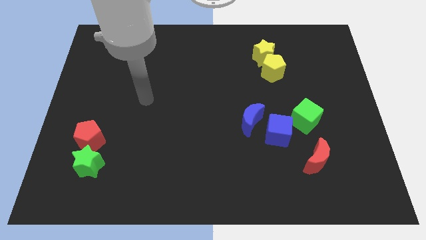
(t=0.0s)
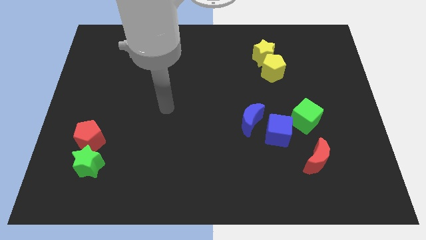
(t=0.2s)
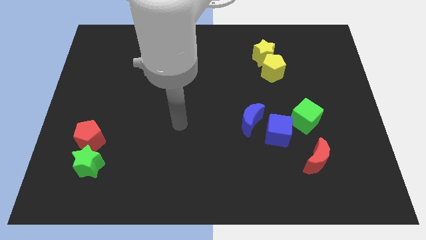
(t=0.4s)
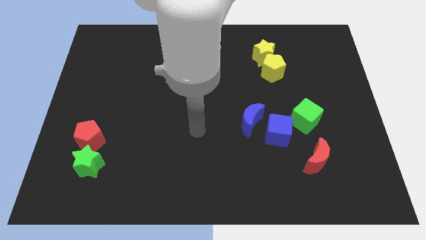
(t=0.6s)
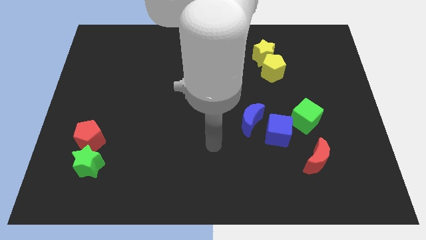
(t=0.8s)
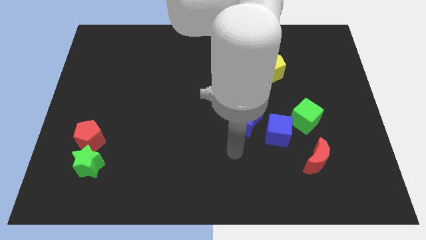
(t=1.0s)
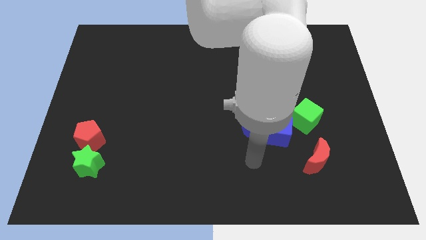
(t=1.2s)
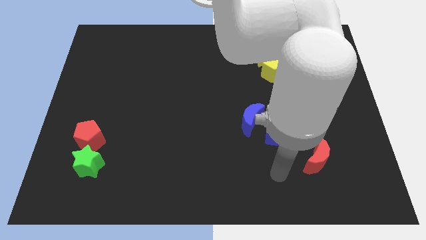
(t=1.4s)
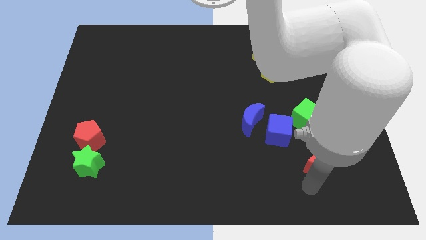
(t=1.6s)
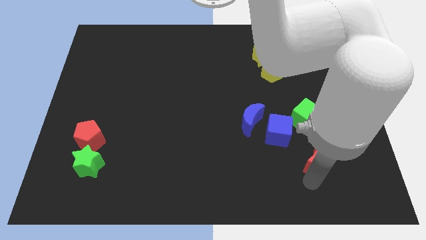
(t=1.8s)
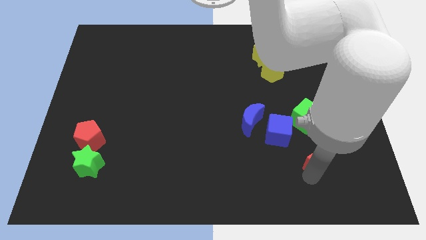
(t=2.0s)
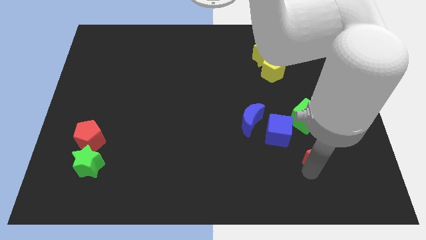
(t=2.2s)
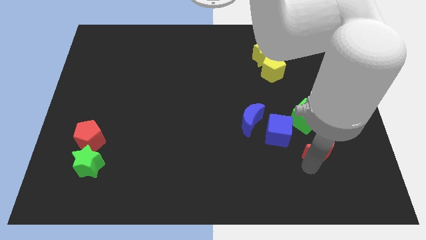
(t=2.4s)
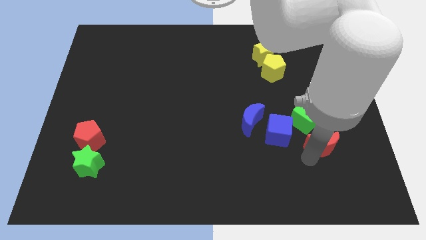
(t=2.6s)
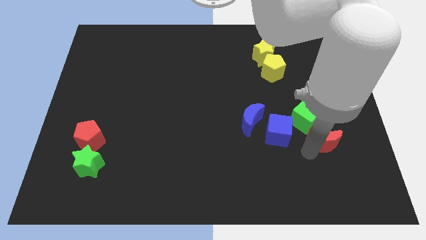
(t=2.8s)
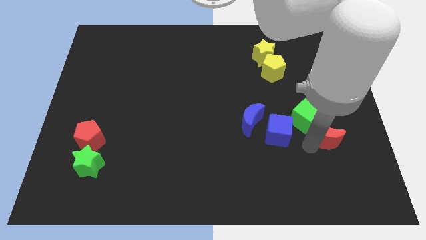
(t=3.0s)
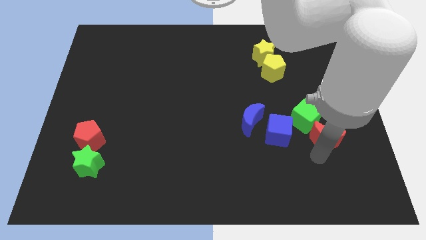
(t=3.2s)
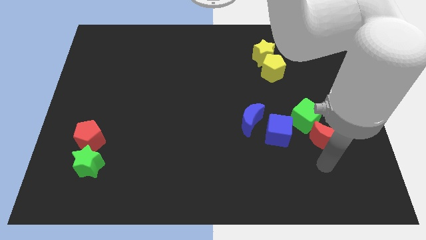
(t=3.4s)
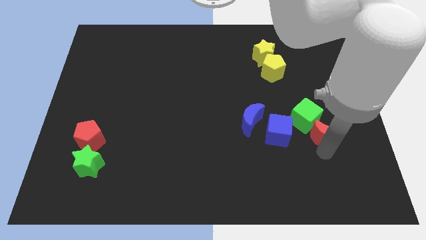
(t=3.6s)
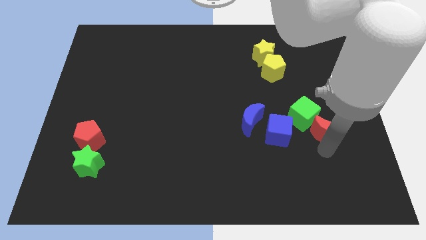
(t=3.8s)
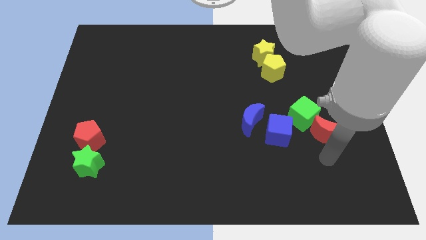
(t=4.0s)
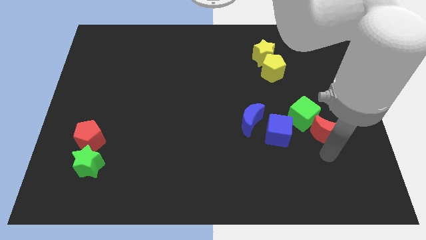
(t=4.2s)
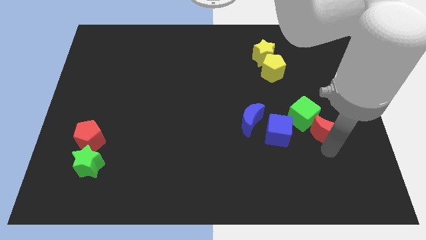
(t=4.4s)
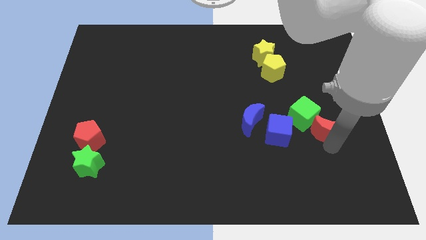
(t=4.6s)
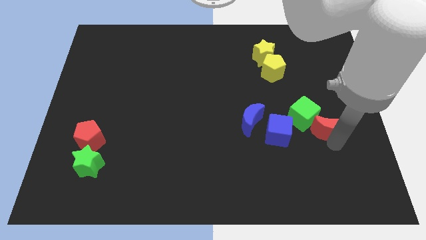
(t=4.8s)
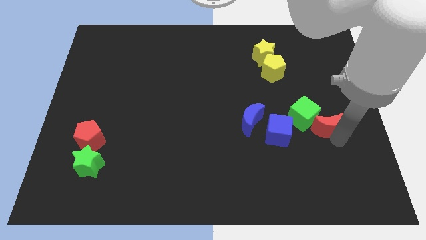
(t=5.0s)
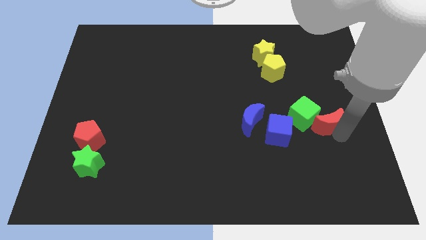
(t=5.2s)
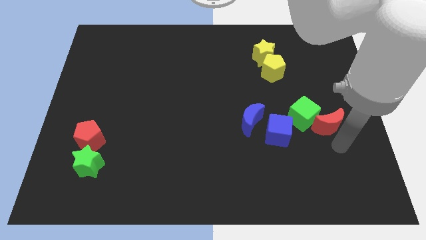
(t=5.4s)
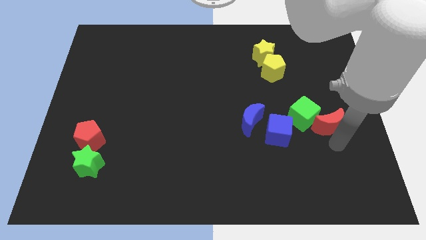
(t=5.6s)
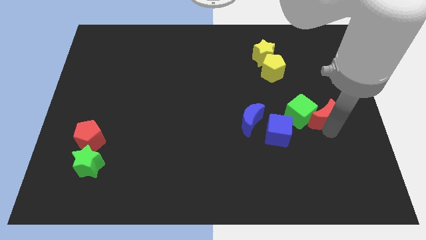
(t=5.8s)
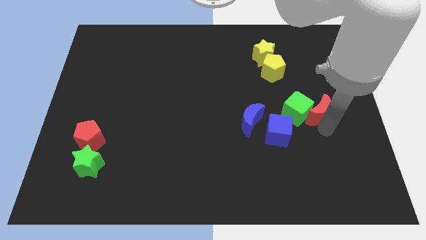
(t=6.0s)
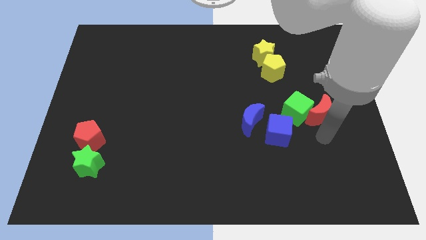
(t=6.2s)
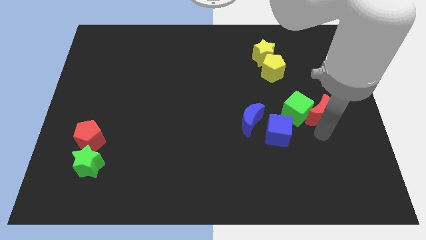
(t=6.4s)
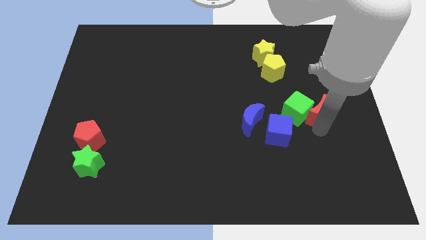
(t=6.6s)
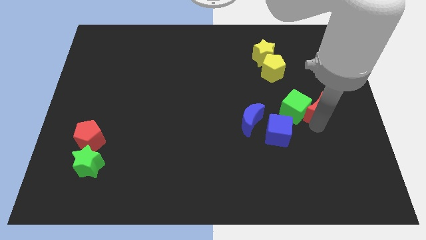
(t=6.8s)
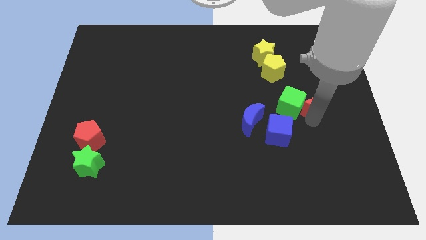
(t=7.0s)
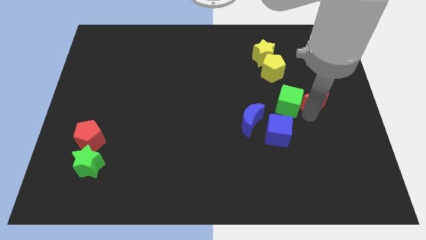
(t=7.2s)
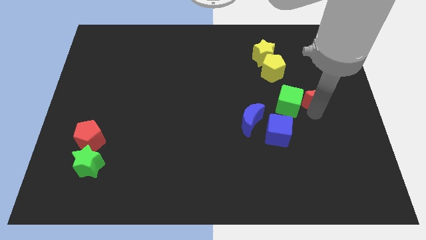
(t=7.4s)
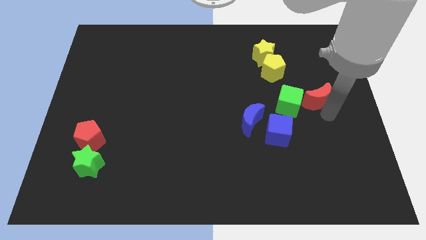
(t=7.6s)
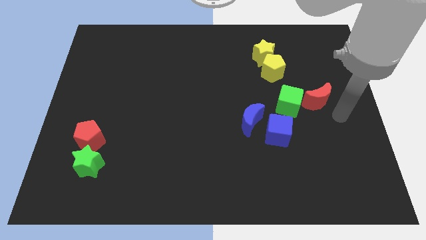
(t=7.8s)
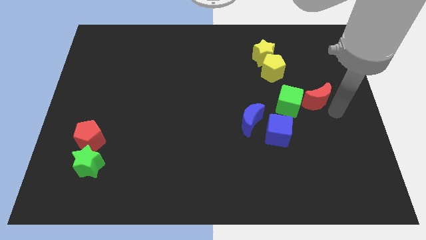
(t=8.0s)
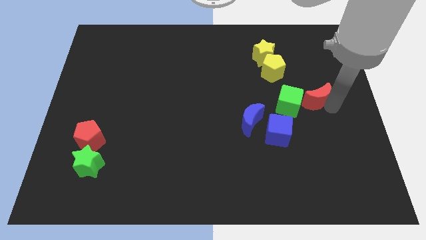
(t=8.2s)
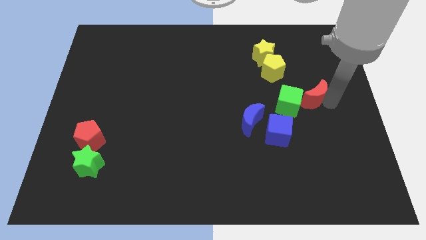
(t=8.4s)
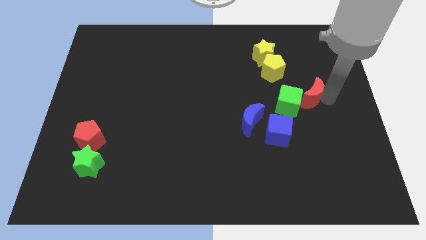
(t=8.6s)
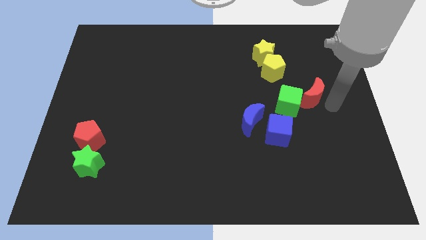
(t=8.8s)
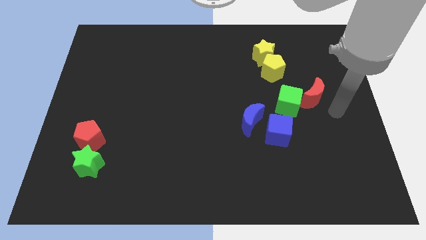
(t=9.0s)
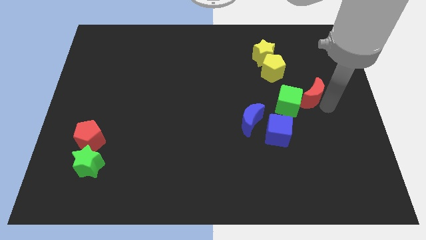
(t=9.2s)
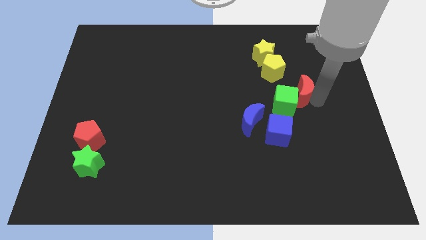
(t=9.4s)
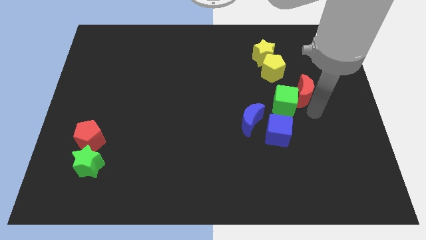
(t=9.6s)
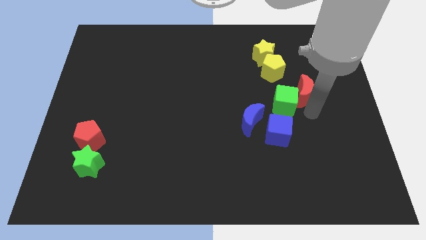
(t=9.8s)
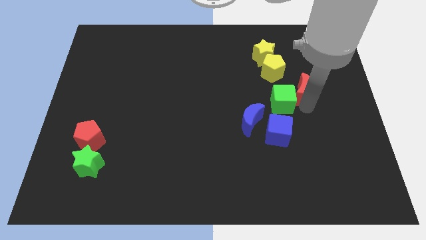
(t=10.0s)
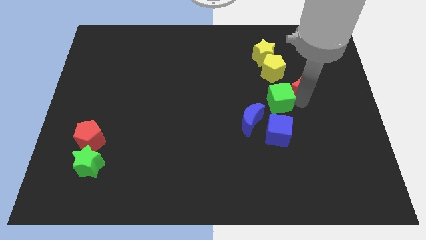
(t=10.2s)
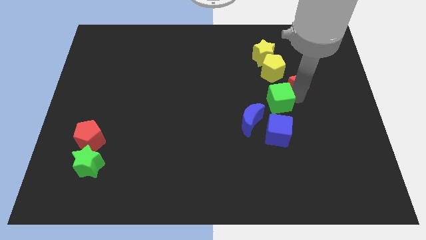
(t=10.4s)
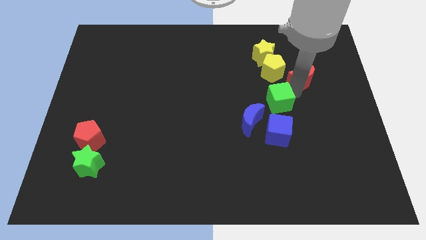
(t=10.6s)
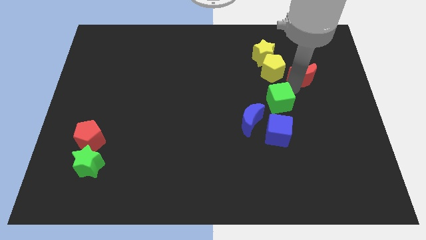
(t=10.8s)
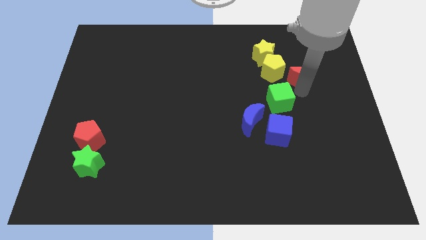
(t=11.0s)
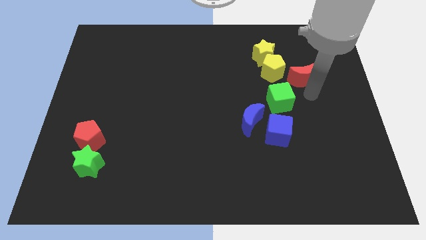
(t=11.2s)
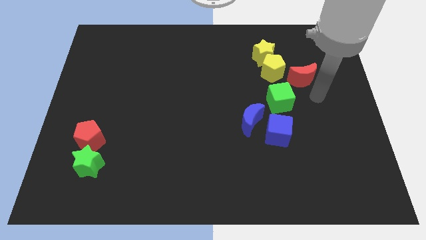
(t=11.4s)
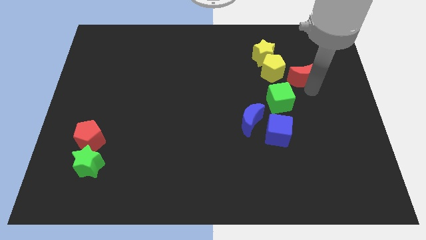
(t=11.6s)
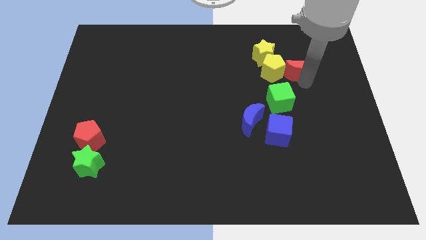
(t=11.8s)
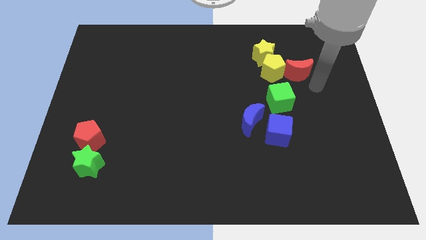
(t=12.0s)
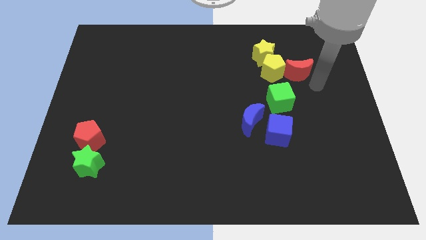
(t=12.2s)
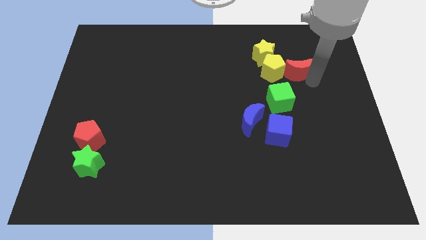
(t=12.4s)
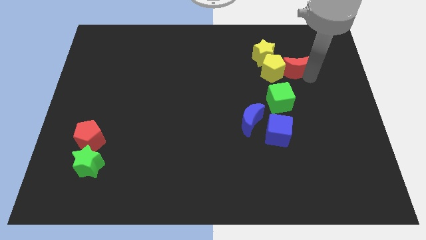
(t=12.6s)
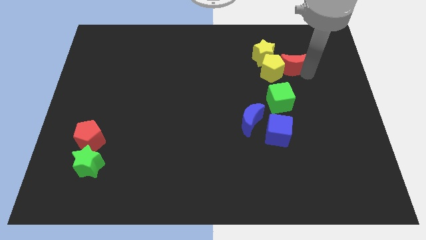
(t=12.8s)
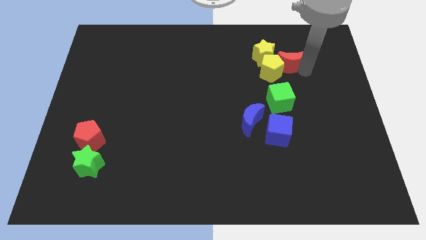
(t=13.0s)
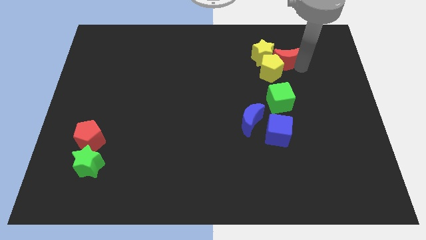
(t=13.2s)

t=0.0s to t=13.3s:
slide the red moon to the yellow star
